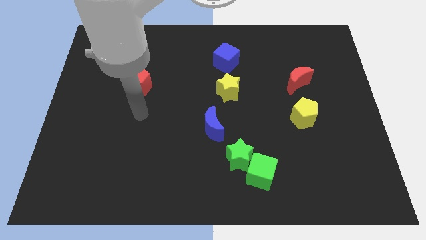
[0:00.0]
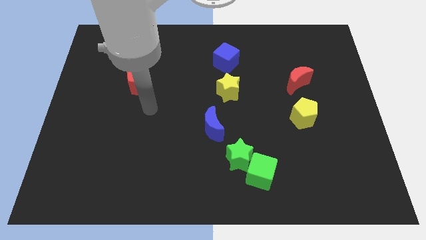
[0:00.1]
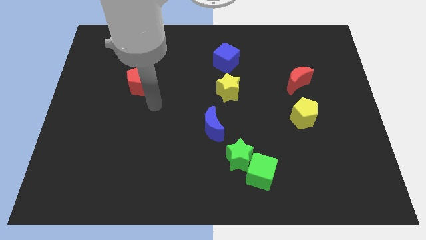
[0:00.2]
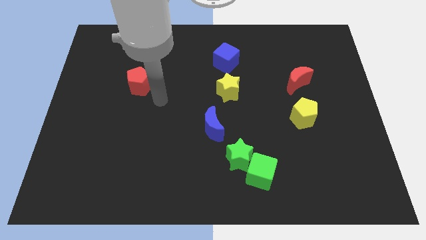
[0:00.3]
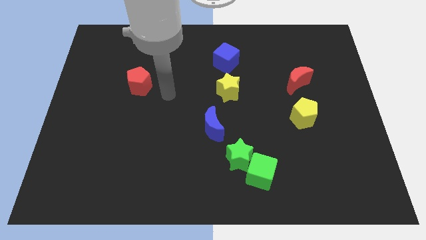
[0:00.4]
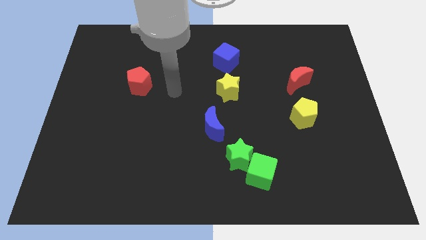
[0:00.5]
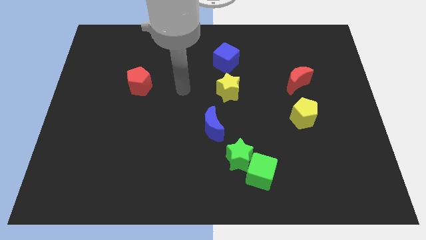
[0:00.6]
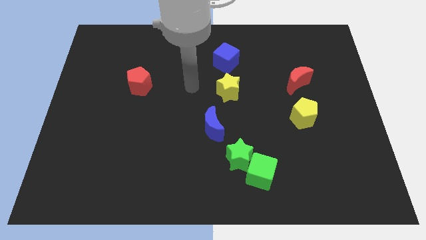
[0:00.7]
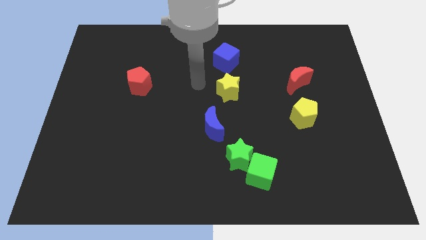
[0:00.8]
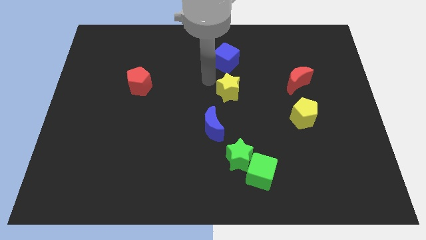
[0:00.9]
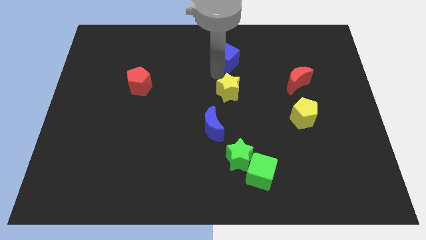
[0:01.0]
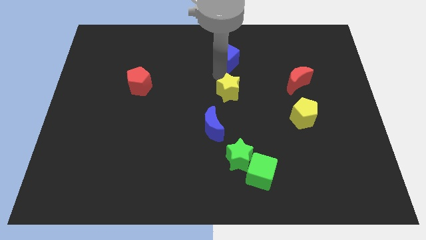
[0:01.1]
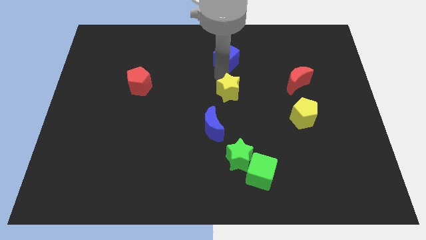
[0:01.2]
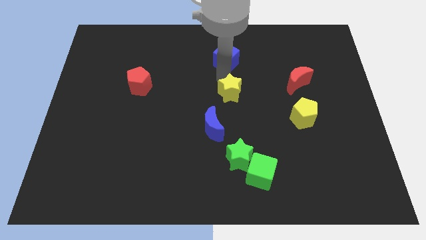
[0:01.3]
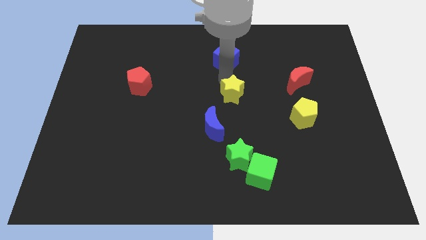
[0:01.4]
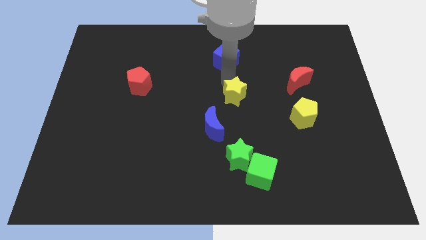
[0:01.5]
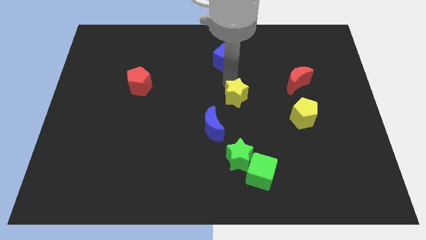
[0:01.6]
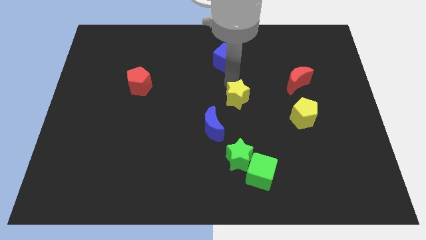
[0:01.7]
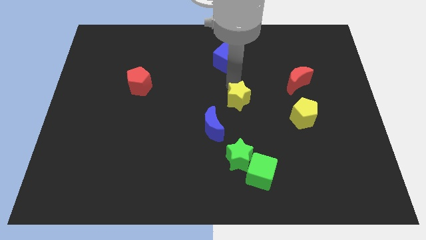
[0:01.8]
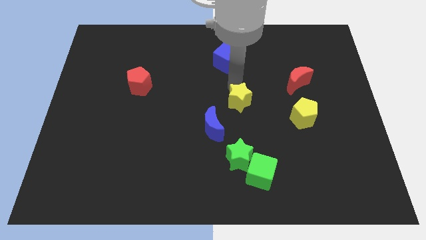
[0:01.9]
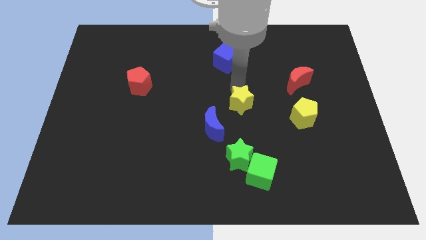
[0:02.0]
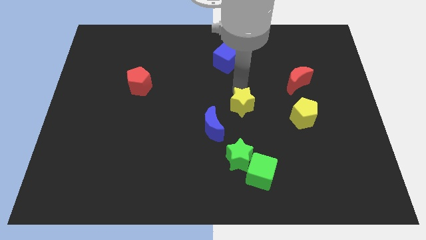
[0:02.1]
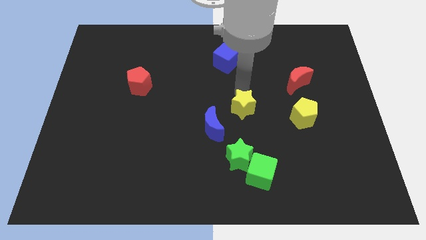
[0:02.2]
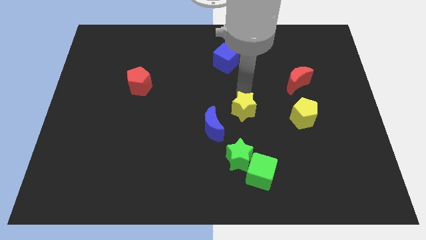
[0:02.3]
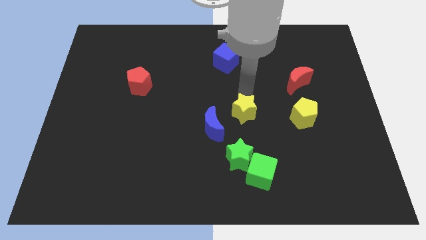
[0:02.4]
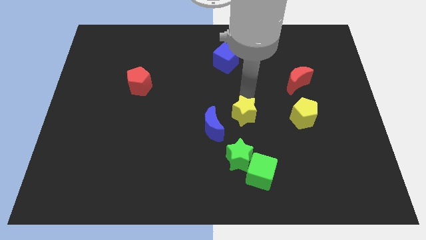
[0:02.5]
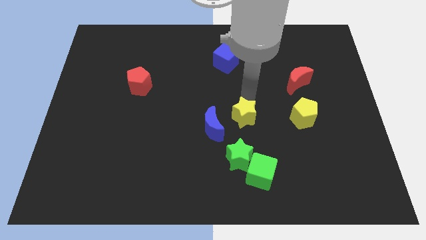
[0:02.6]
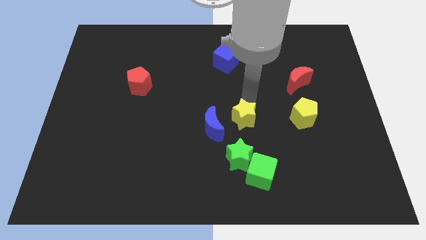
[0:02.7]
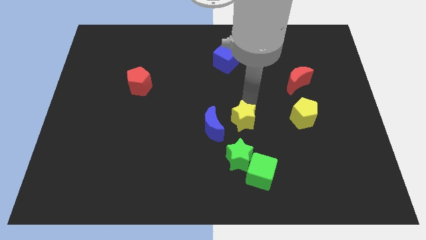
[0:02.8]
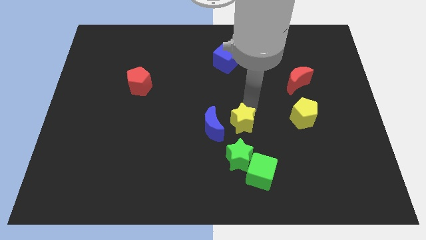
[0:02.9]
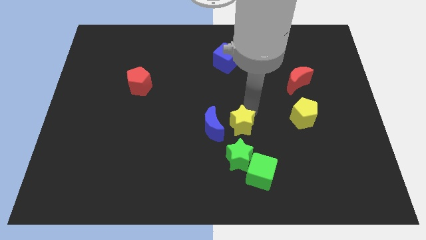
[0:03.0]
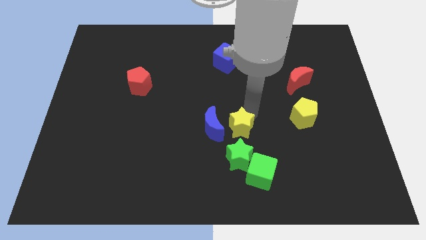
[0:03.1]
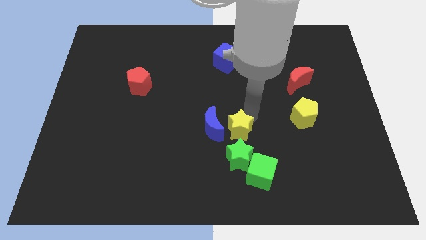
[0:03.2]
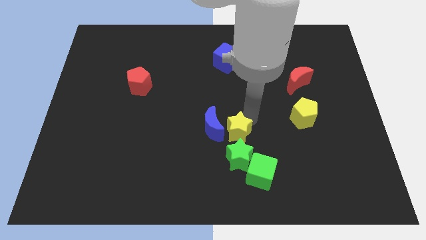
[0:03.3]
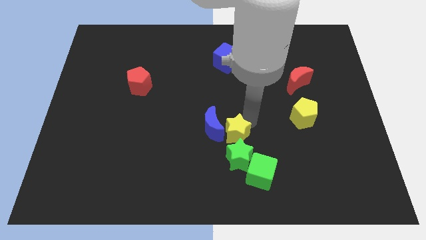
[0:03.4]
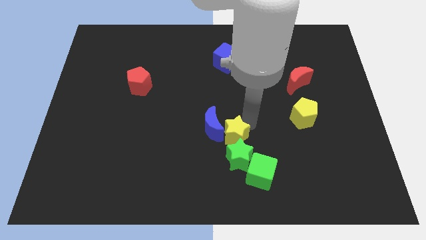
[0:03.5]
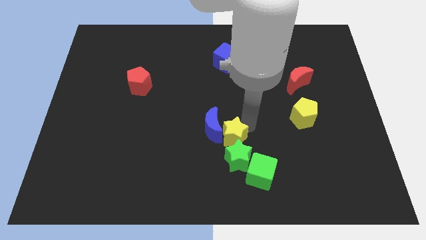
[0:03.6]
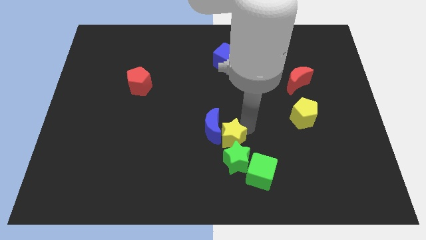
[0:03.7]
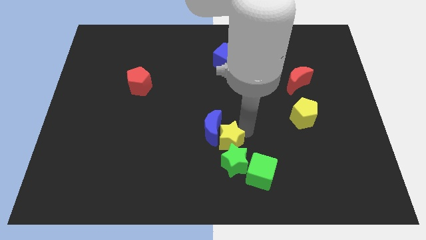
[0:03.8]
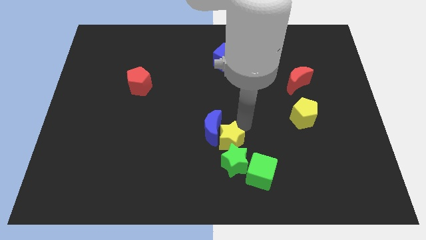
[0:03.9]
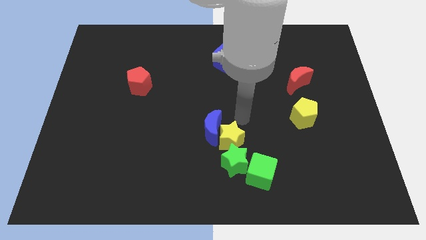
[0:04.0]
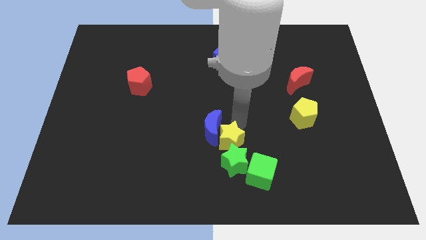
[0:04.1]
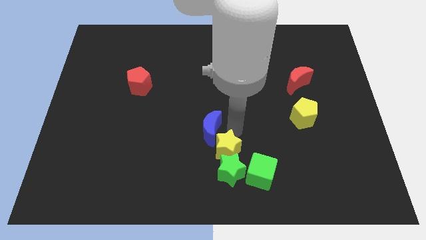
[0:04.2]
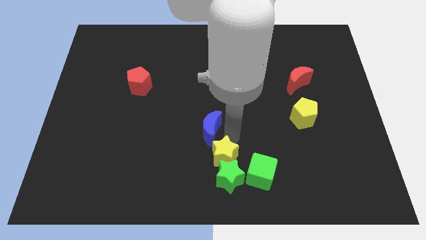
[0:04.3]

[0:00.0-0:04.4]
slide the yellow star just left of the green cube

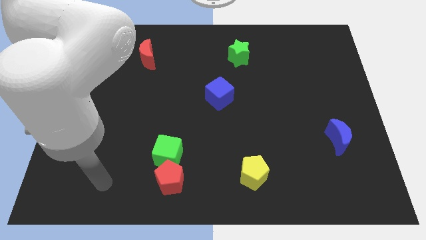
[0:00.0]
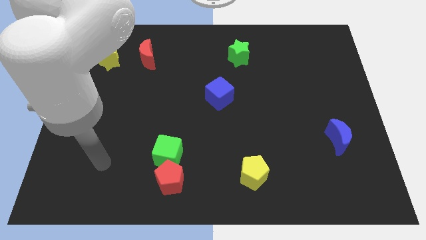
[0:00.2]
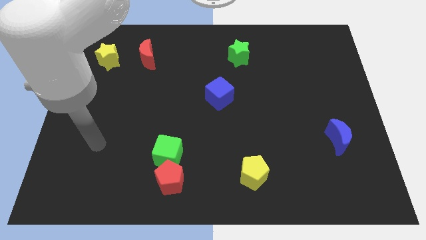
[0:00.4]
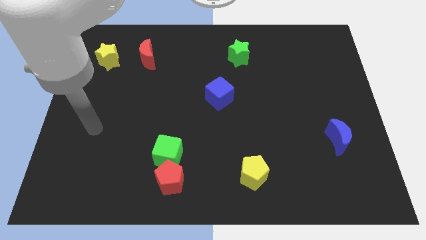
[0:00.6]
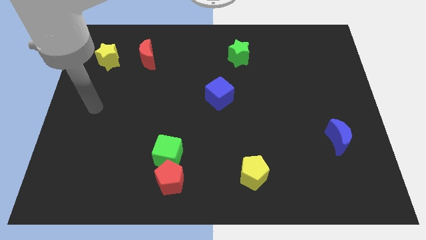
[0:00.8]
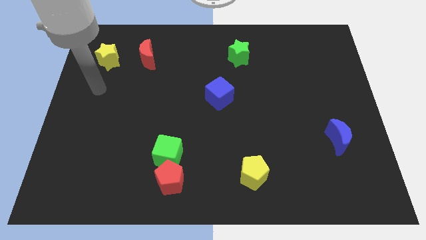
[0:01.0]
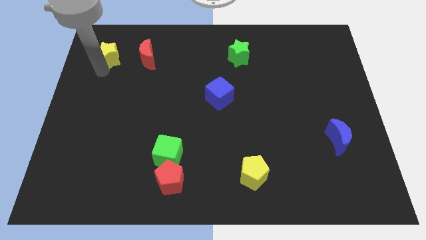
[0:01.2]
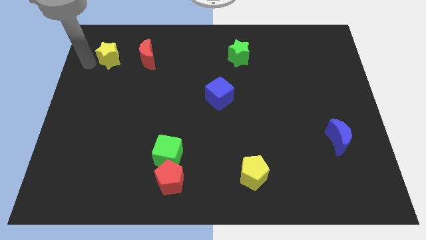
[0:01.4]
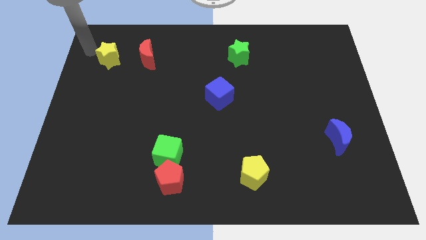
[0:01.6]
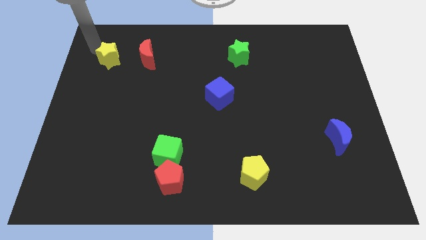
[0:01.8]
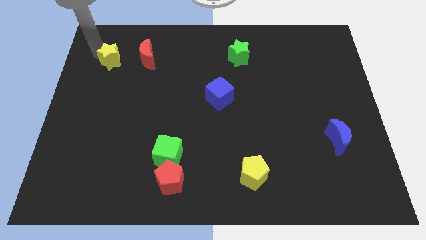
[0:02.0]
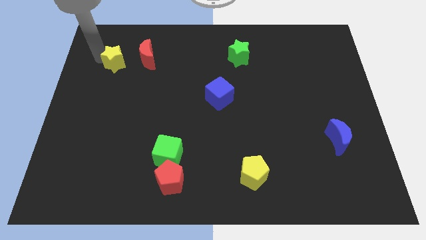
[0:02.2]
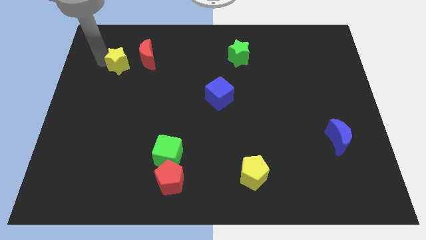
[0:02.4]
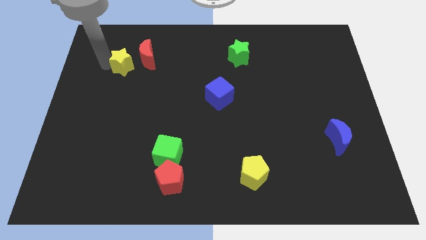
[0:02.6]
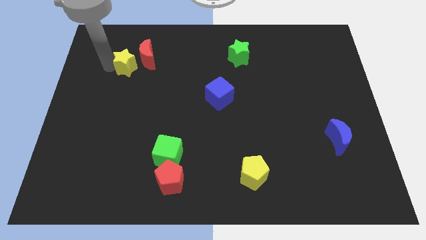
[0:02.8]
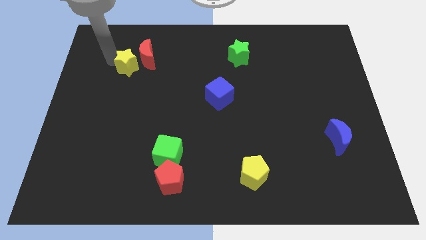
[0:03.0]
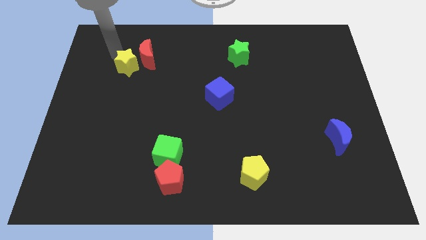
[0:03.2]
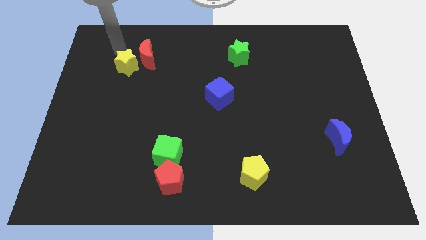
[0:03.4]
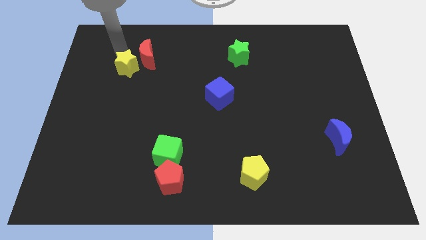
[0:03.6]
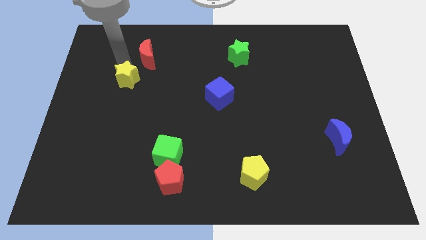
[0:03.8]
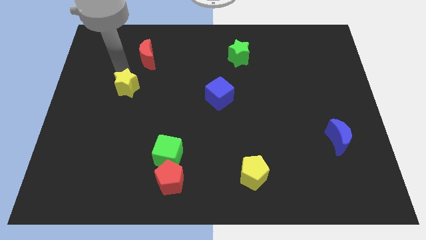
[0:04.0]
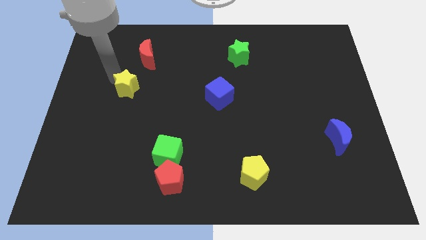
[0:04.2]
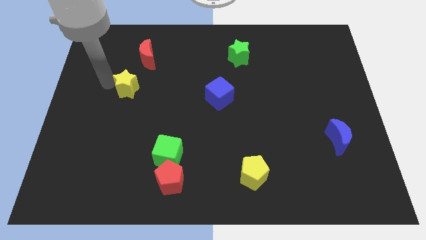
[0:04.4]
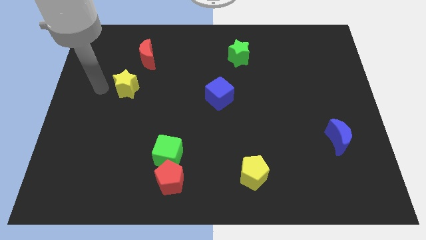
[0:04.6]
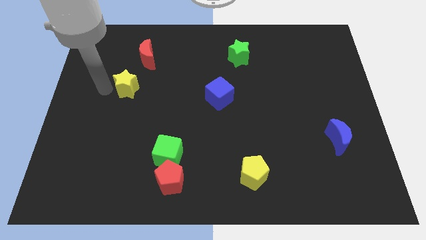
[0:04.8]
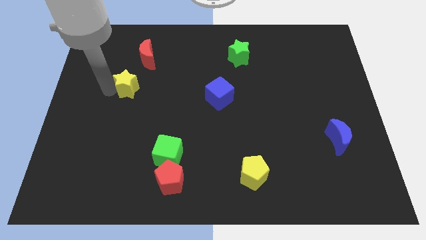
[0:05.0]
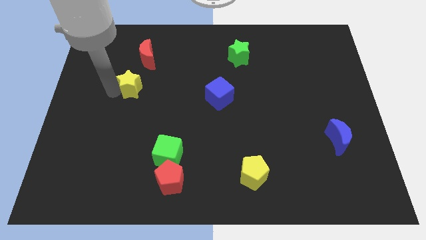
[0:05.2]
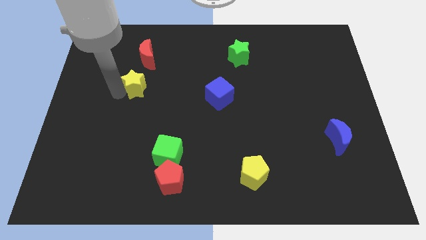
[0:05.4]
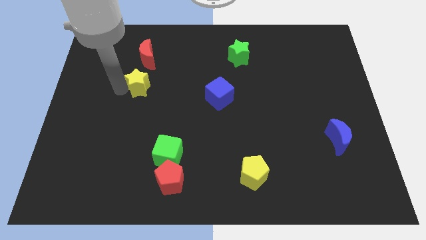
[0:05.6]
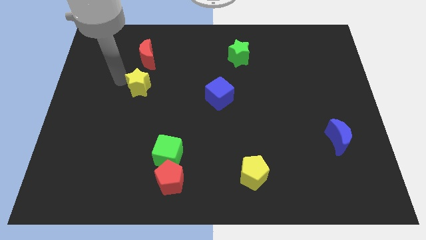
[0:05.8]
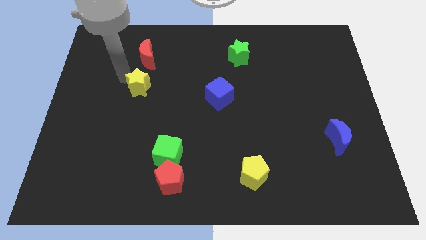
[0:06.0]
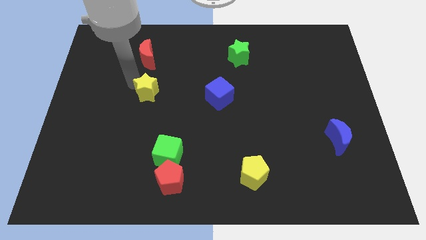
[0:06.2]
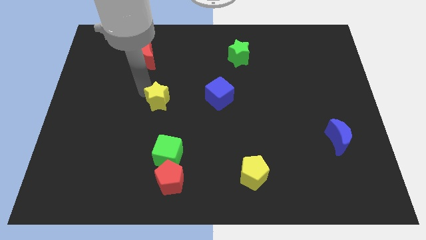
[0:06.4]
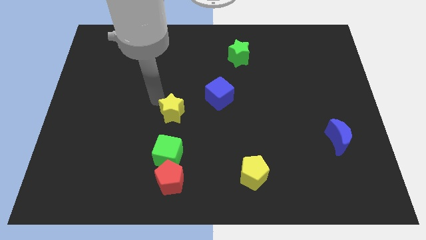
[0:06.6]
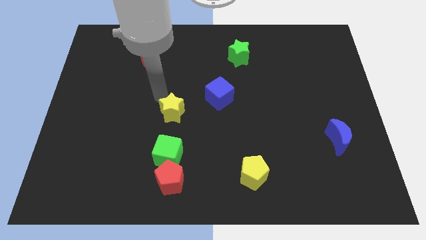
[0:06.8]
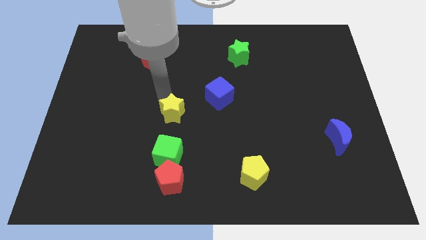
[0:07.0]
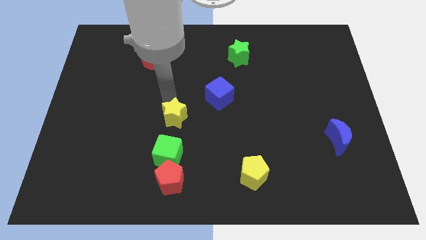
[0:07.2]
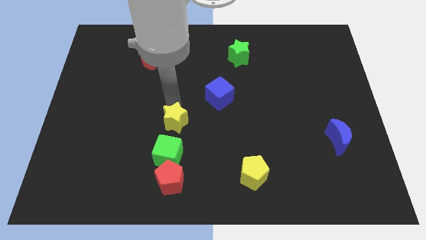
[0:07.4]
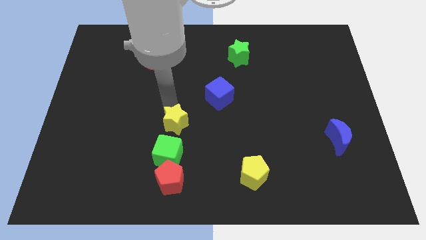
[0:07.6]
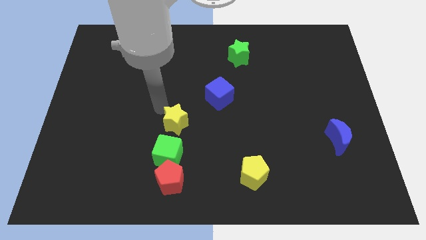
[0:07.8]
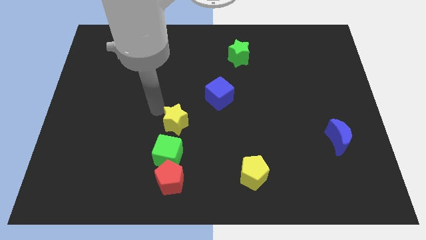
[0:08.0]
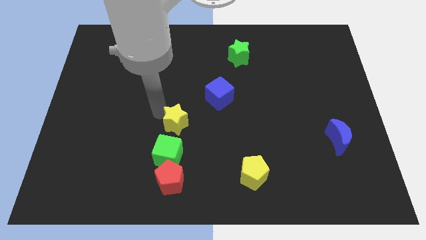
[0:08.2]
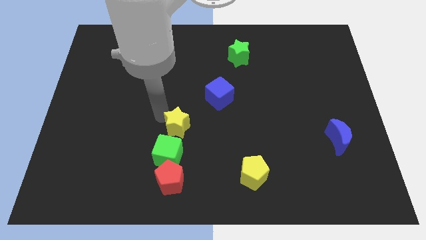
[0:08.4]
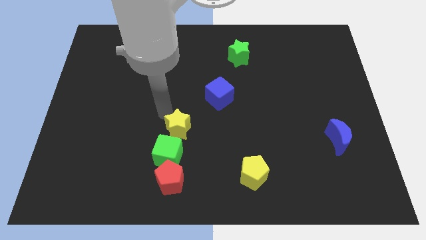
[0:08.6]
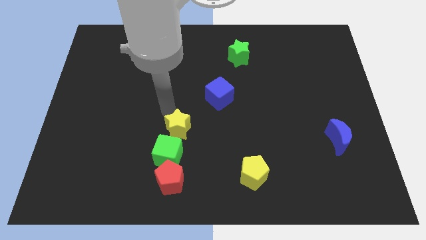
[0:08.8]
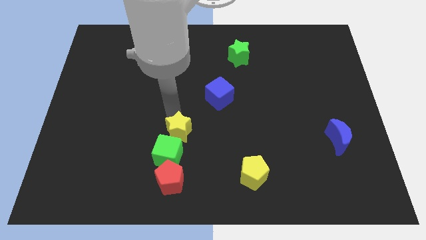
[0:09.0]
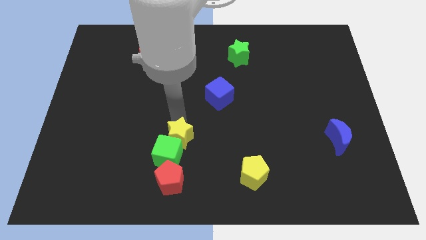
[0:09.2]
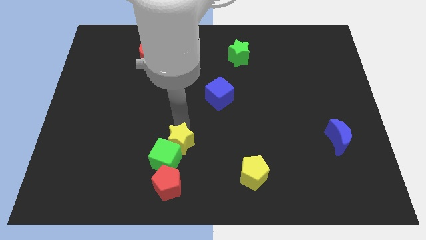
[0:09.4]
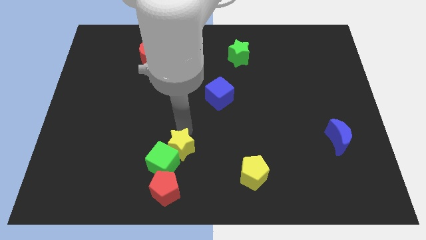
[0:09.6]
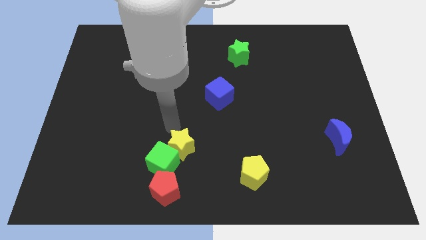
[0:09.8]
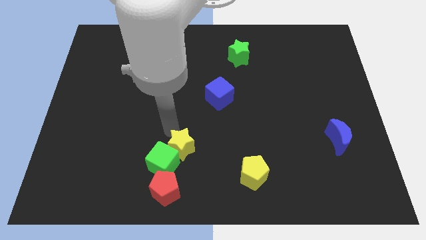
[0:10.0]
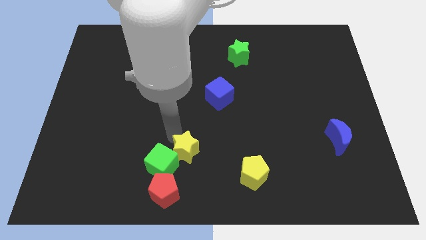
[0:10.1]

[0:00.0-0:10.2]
move the yellow star diagonally up and to the right of the red pentagon
